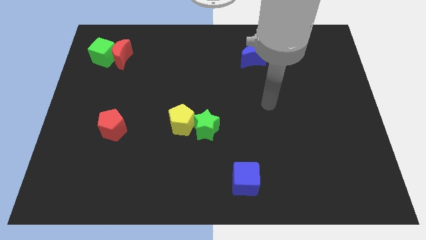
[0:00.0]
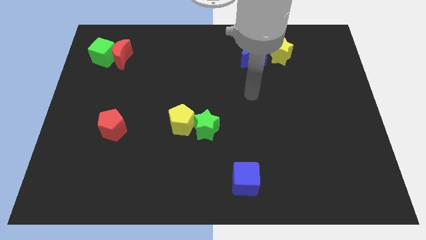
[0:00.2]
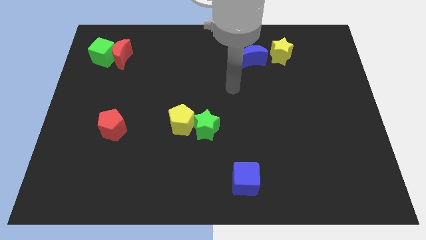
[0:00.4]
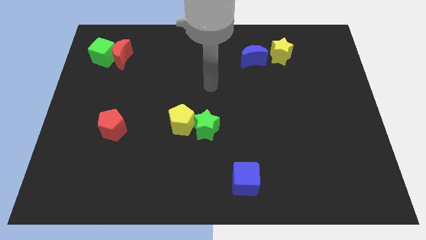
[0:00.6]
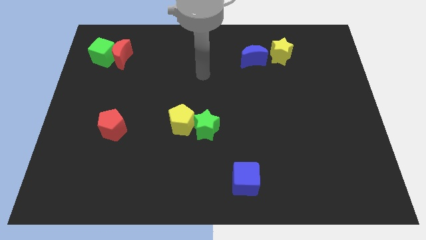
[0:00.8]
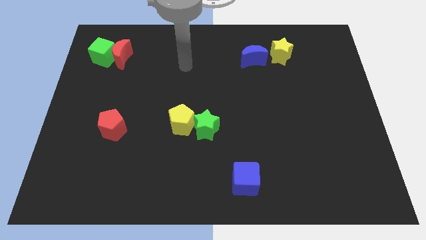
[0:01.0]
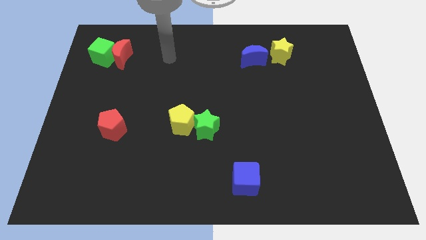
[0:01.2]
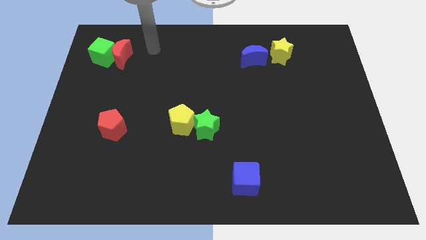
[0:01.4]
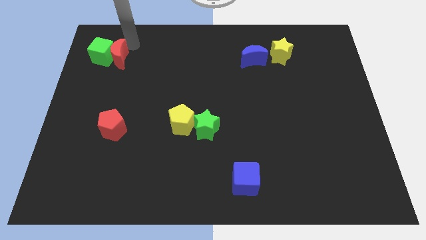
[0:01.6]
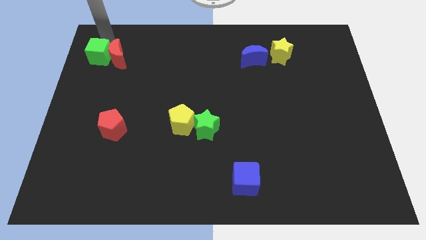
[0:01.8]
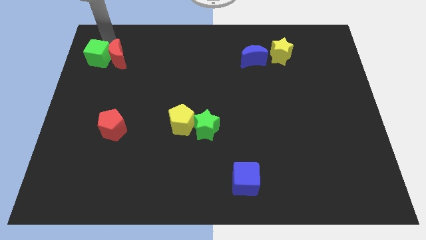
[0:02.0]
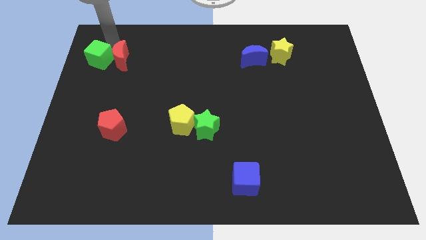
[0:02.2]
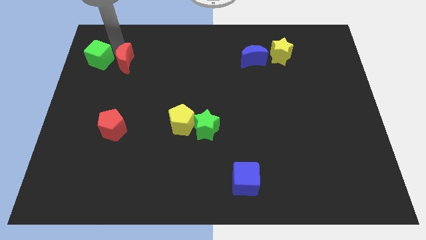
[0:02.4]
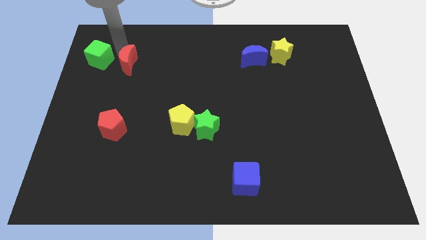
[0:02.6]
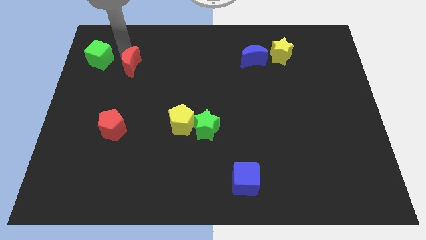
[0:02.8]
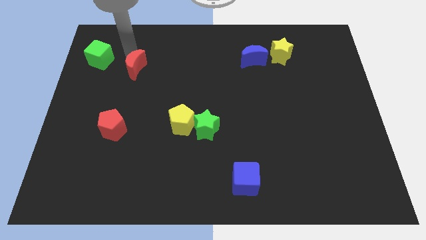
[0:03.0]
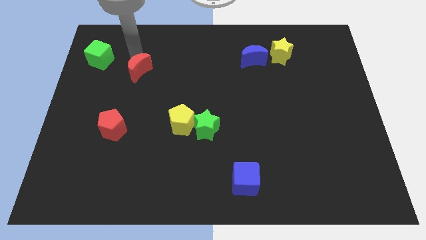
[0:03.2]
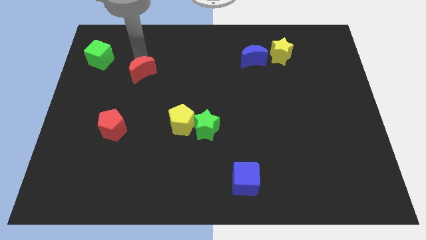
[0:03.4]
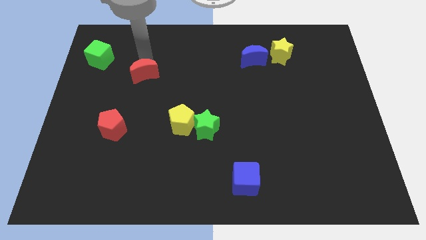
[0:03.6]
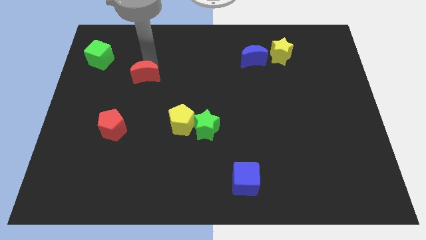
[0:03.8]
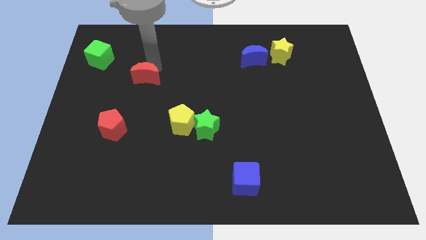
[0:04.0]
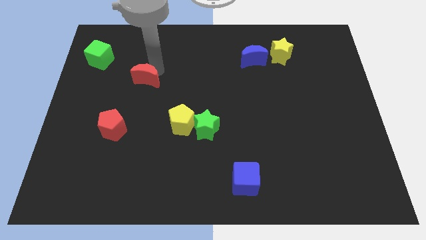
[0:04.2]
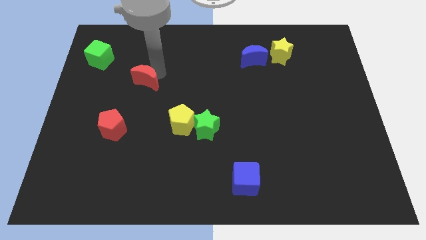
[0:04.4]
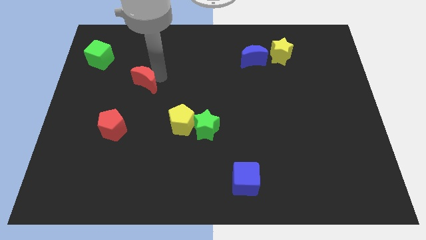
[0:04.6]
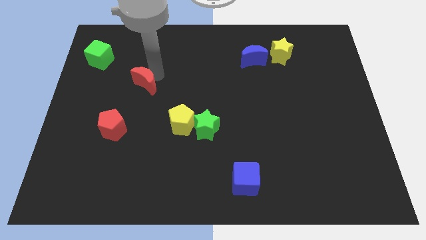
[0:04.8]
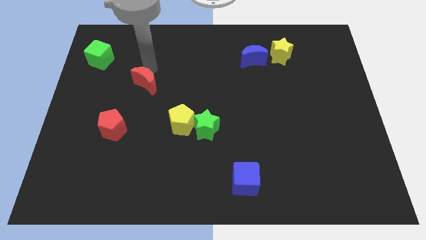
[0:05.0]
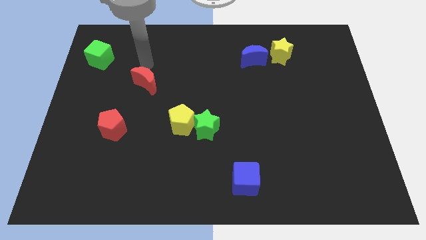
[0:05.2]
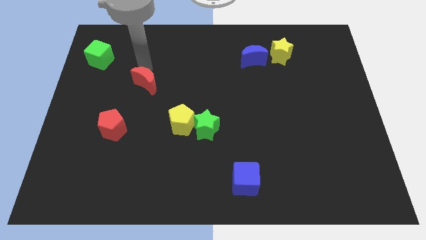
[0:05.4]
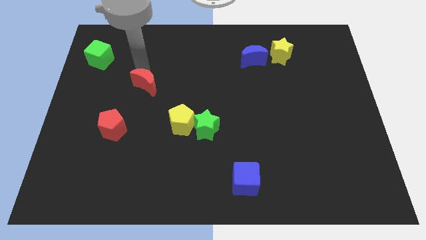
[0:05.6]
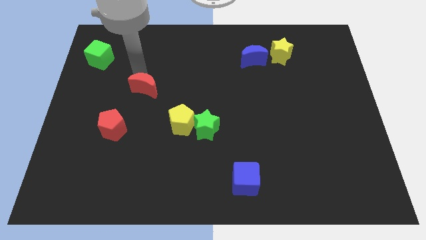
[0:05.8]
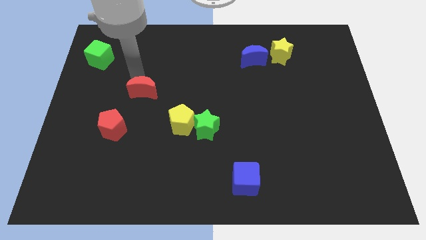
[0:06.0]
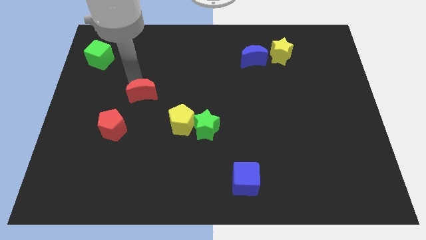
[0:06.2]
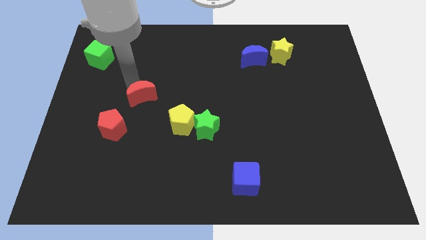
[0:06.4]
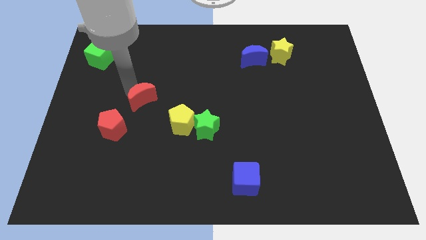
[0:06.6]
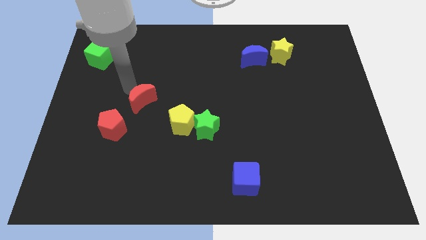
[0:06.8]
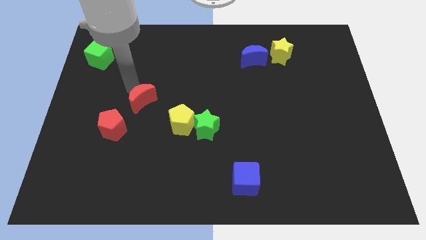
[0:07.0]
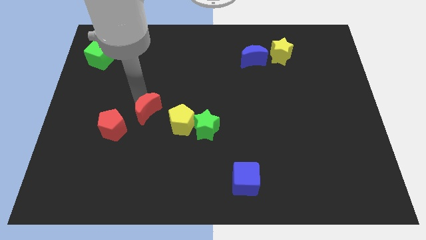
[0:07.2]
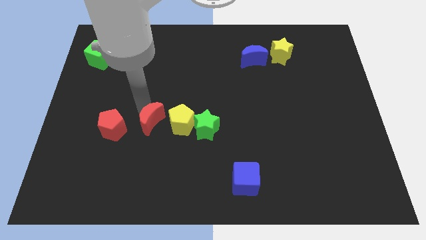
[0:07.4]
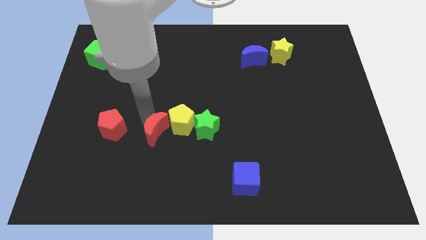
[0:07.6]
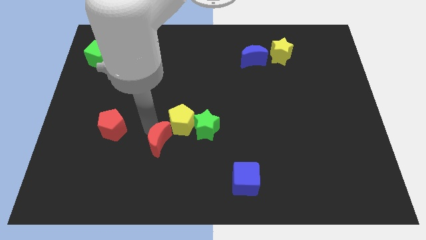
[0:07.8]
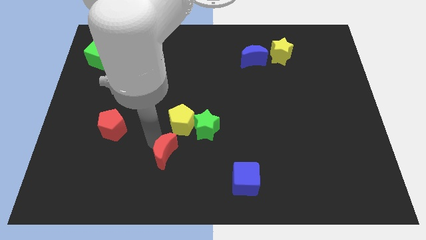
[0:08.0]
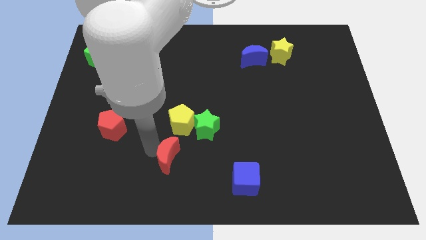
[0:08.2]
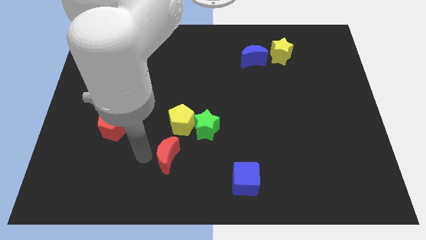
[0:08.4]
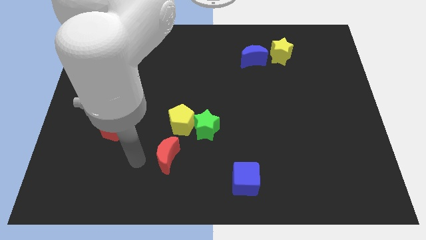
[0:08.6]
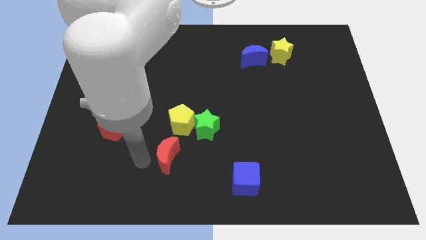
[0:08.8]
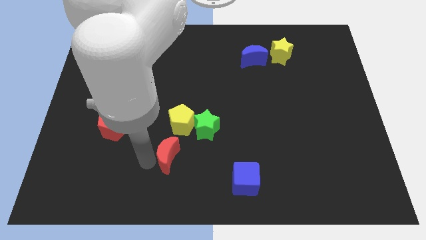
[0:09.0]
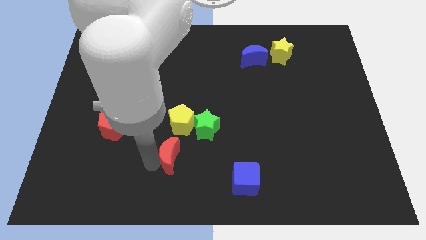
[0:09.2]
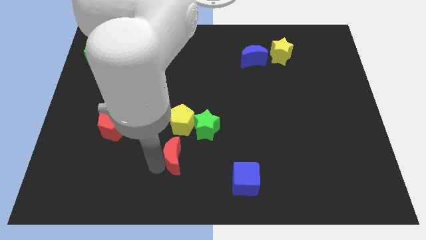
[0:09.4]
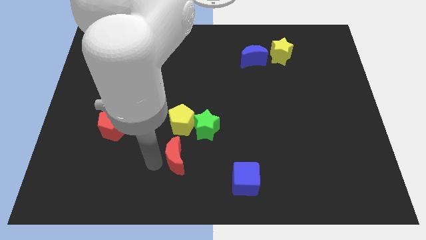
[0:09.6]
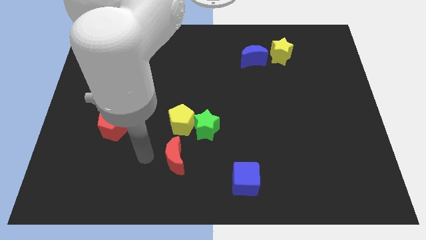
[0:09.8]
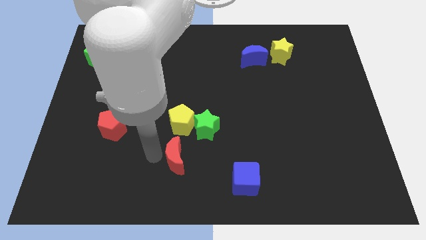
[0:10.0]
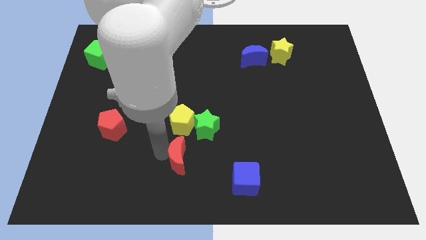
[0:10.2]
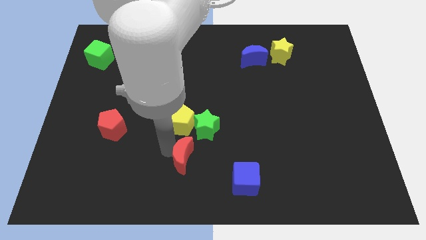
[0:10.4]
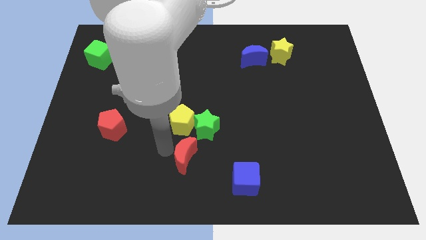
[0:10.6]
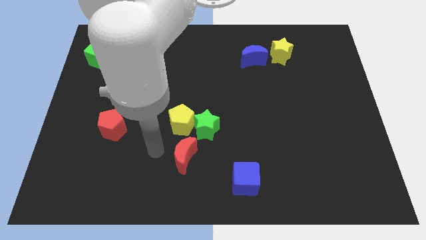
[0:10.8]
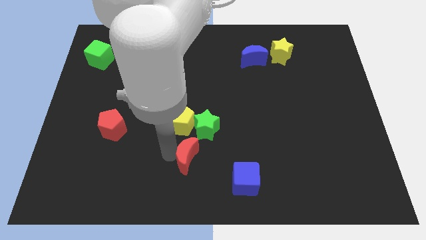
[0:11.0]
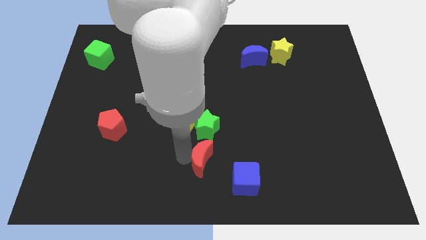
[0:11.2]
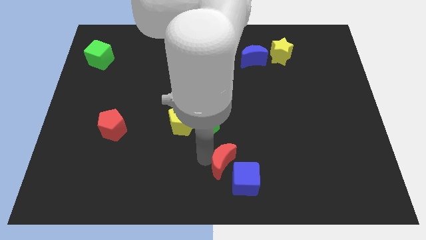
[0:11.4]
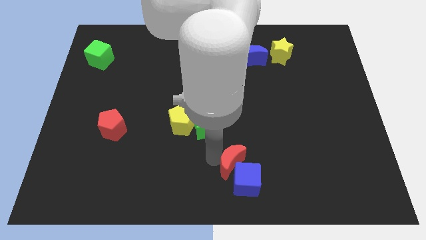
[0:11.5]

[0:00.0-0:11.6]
put the red moon towards the blue cube

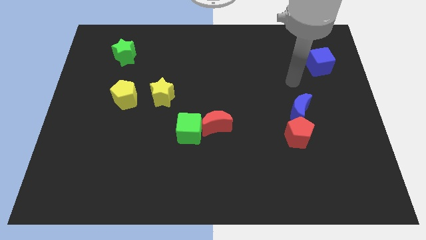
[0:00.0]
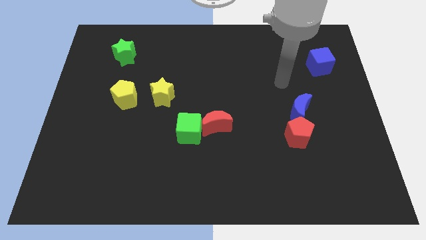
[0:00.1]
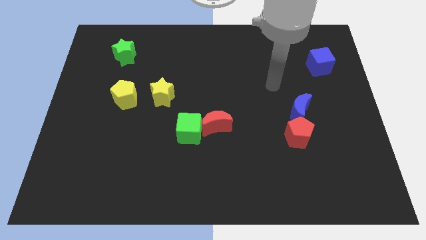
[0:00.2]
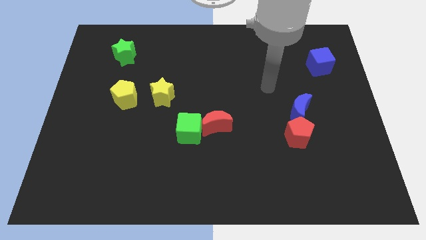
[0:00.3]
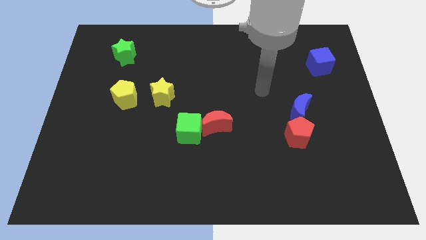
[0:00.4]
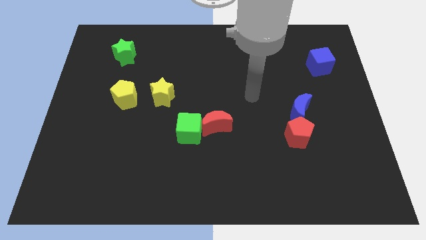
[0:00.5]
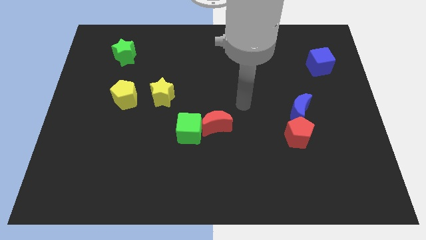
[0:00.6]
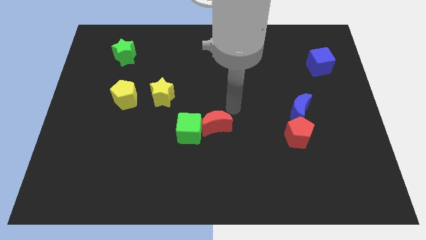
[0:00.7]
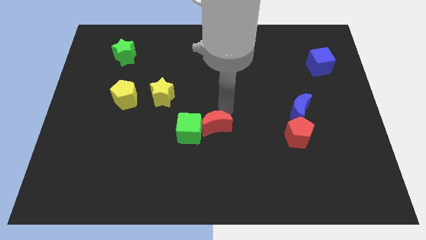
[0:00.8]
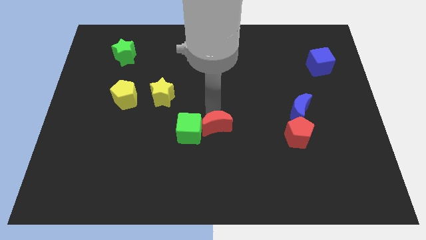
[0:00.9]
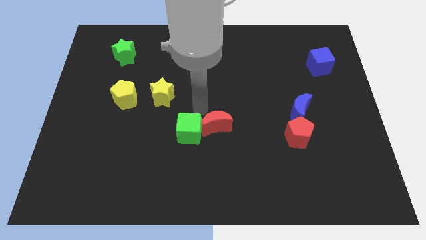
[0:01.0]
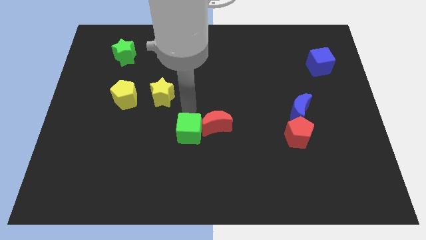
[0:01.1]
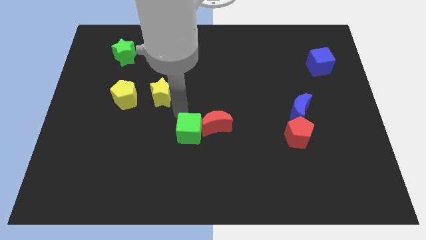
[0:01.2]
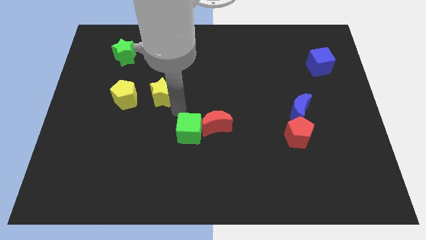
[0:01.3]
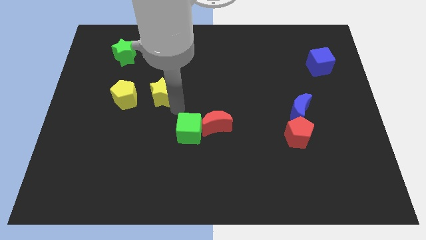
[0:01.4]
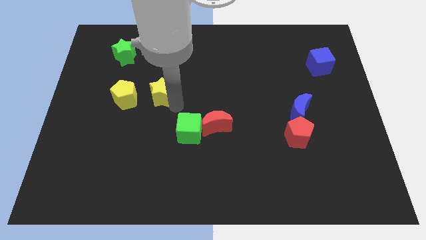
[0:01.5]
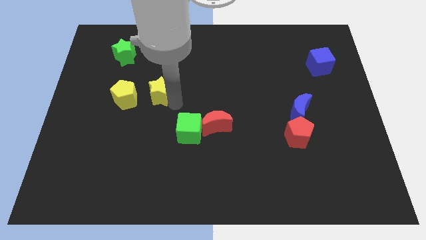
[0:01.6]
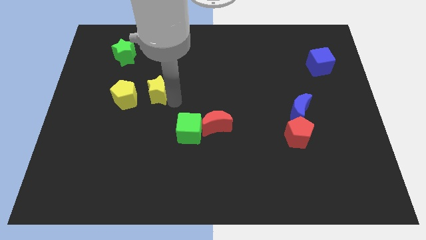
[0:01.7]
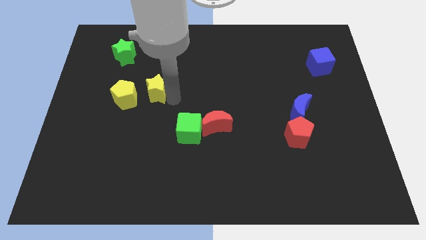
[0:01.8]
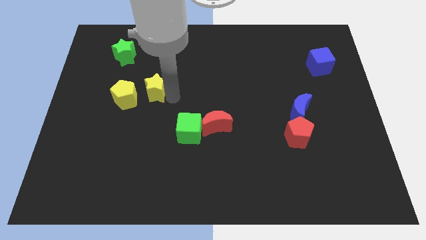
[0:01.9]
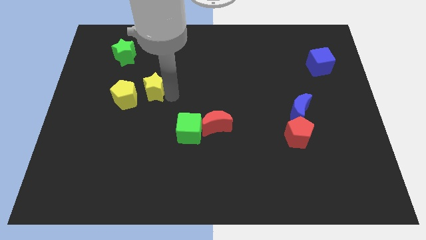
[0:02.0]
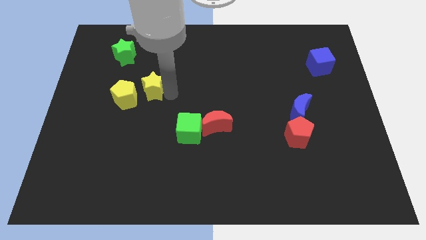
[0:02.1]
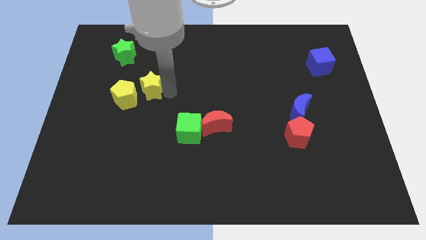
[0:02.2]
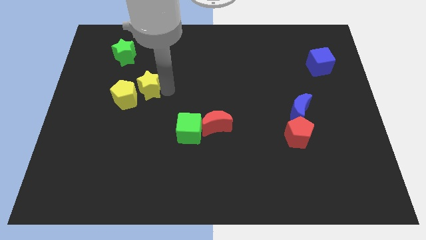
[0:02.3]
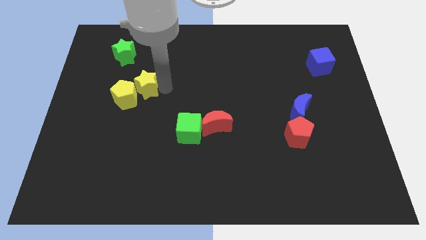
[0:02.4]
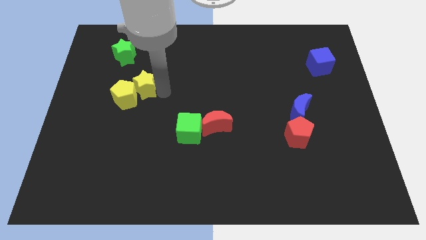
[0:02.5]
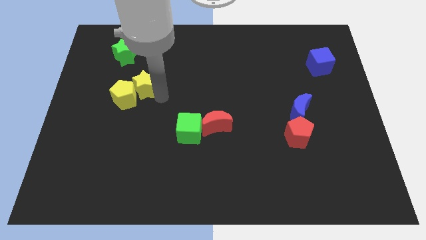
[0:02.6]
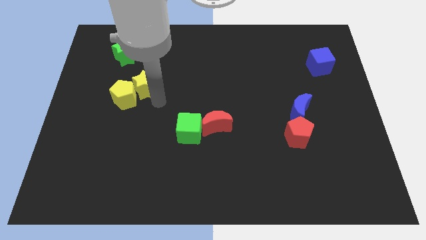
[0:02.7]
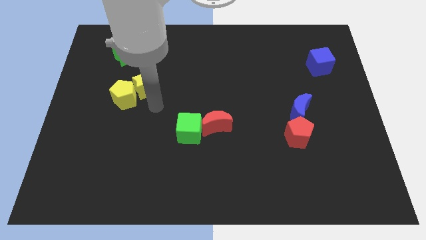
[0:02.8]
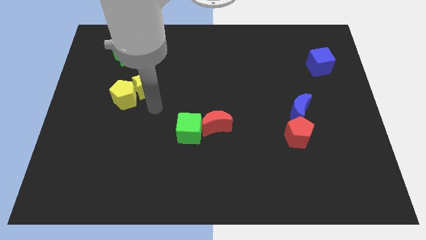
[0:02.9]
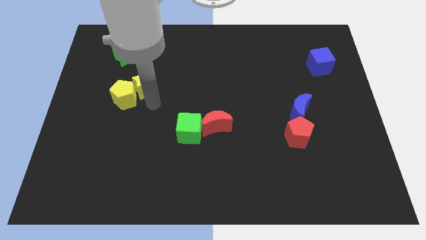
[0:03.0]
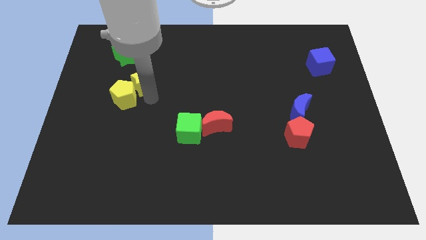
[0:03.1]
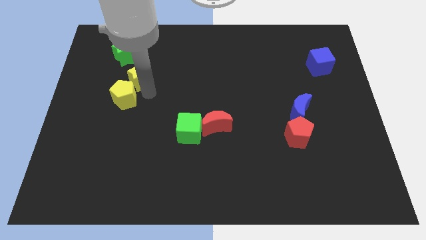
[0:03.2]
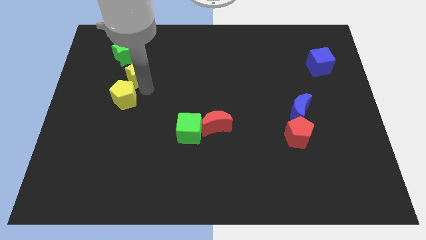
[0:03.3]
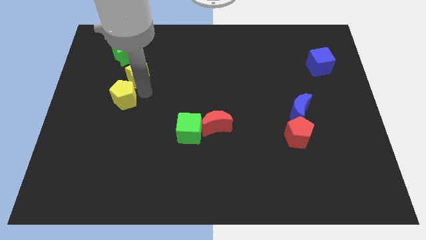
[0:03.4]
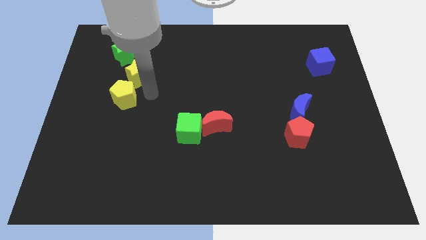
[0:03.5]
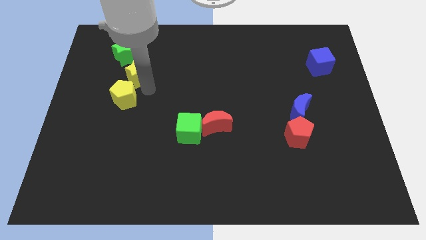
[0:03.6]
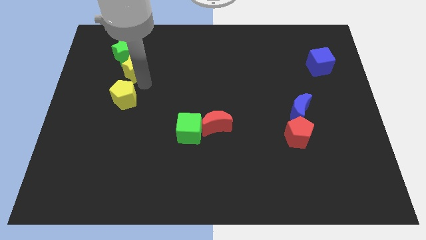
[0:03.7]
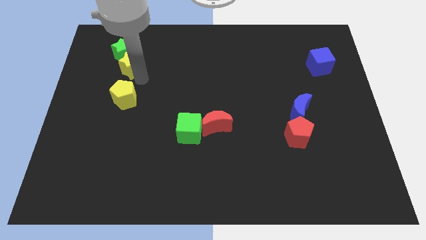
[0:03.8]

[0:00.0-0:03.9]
push the yellow star towards the green star
